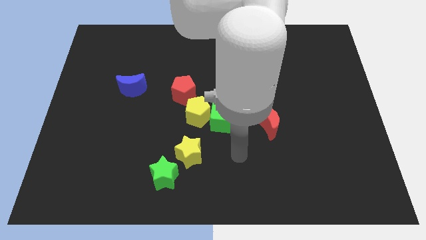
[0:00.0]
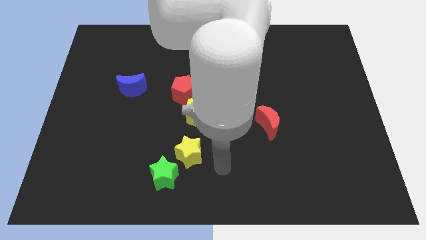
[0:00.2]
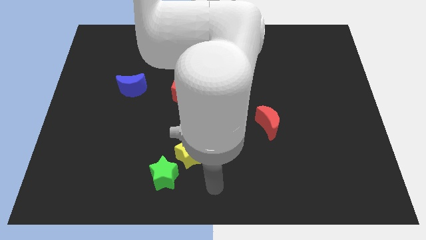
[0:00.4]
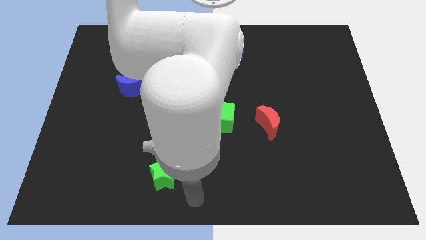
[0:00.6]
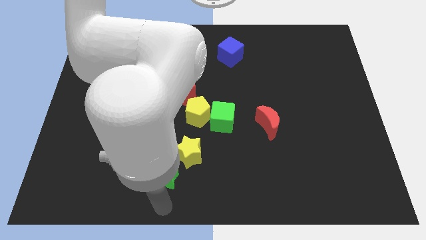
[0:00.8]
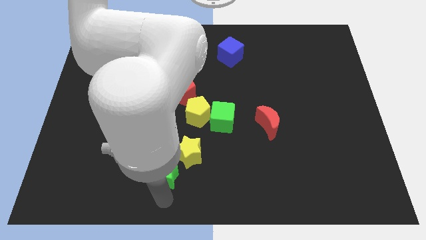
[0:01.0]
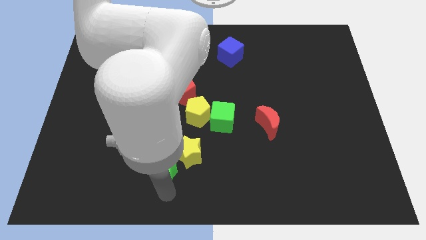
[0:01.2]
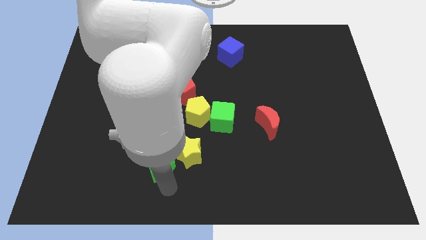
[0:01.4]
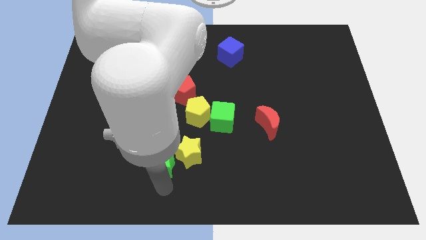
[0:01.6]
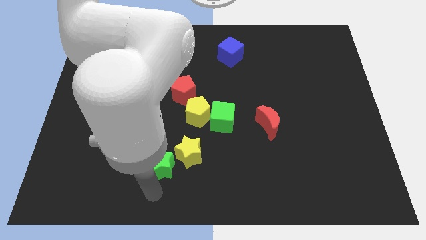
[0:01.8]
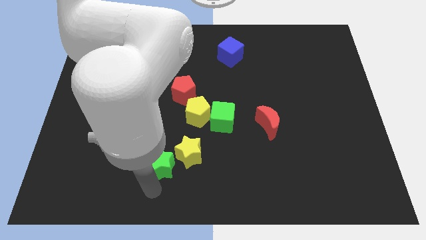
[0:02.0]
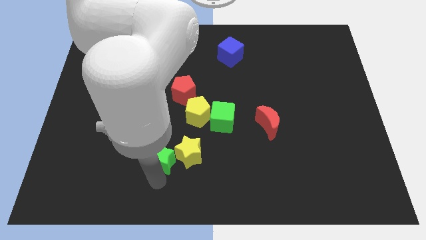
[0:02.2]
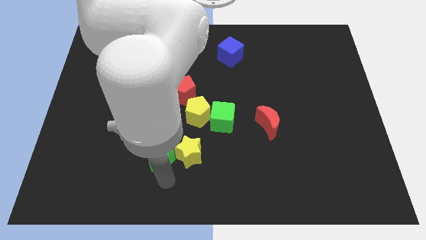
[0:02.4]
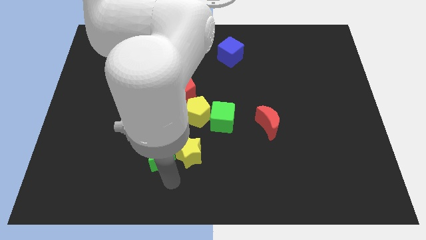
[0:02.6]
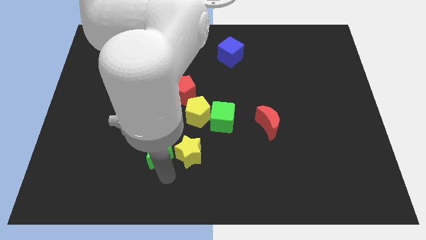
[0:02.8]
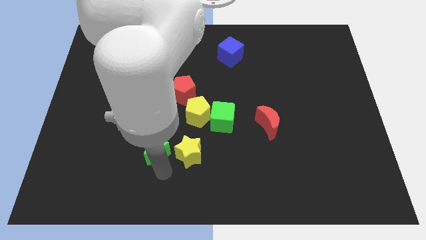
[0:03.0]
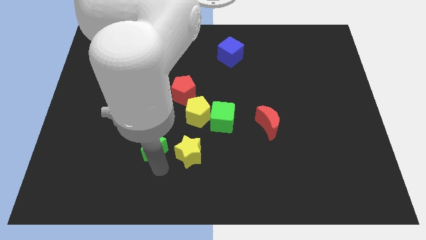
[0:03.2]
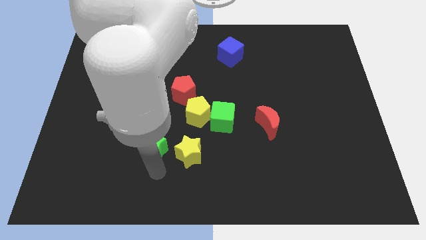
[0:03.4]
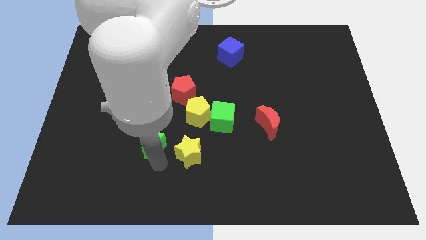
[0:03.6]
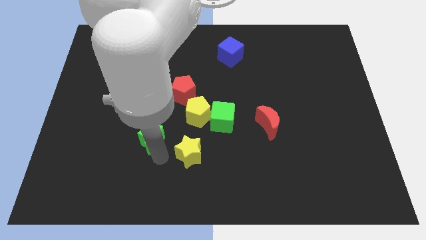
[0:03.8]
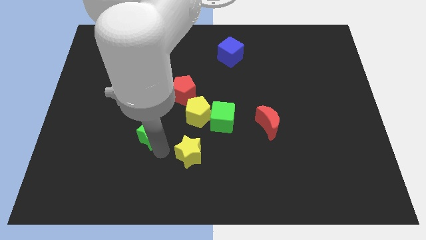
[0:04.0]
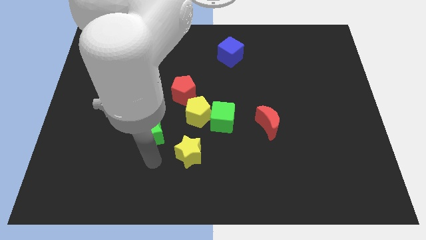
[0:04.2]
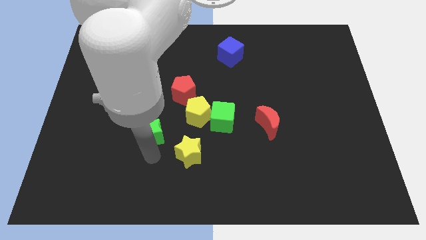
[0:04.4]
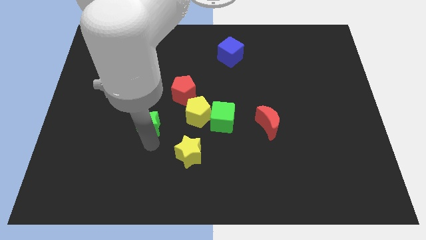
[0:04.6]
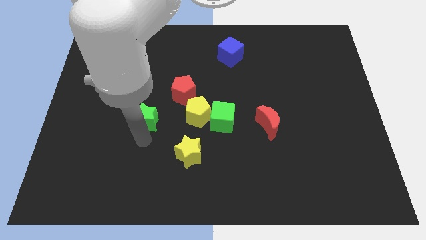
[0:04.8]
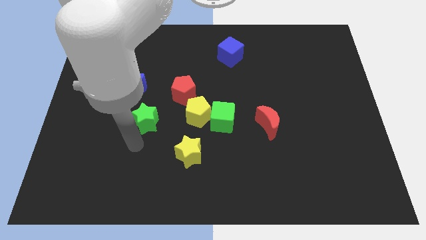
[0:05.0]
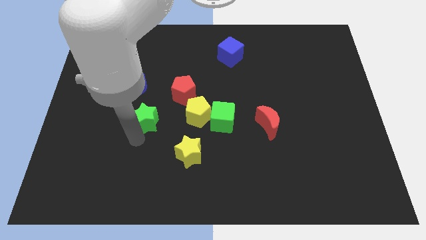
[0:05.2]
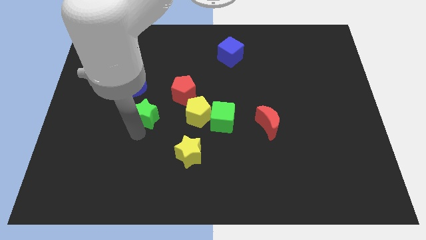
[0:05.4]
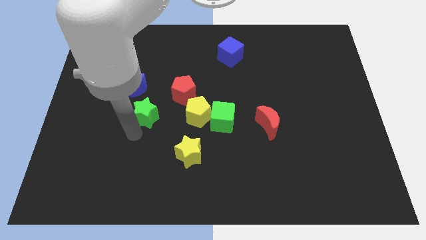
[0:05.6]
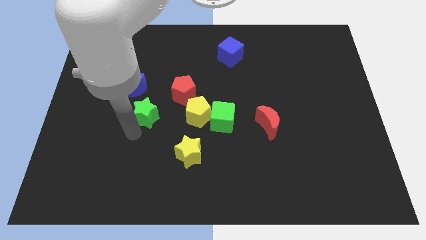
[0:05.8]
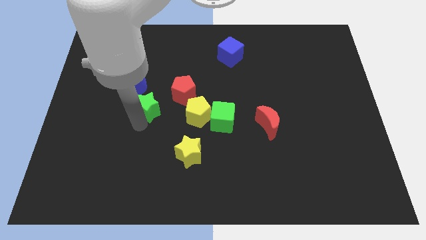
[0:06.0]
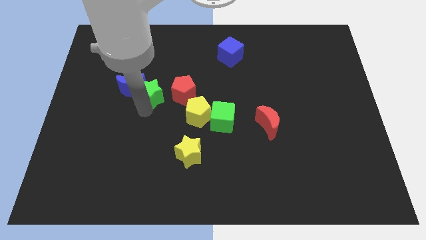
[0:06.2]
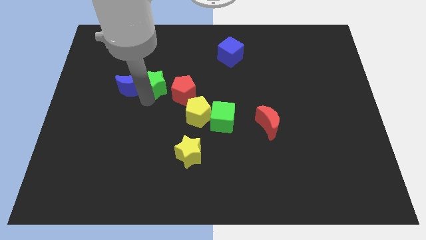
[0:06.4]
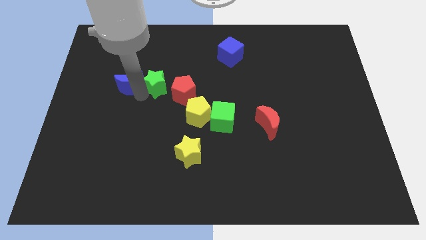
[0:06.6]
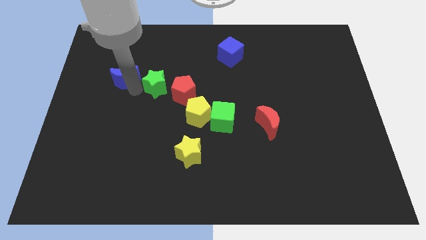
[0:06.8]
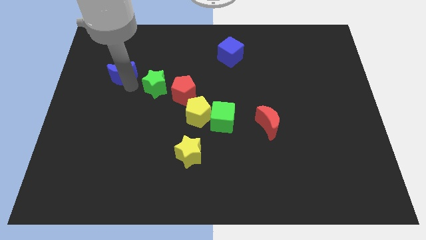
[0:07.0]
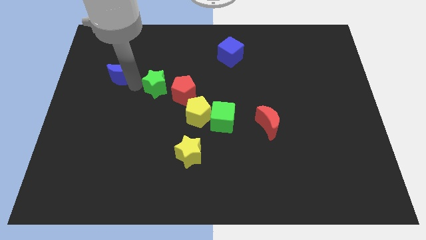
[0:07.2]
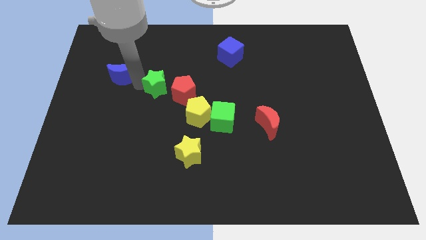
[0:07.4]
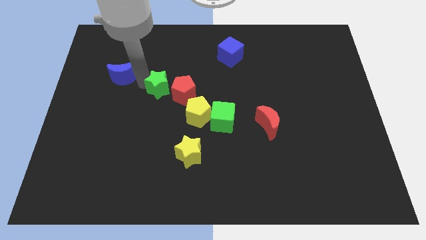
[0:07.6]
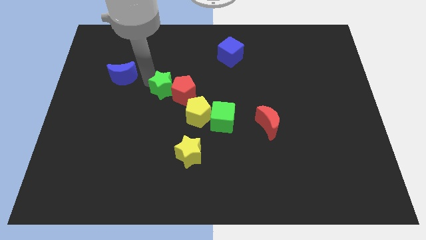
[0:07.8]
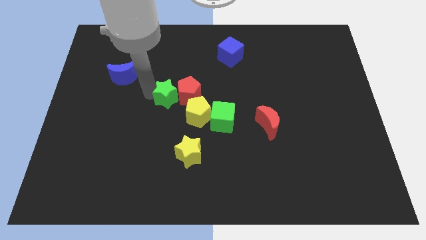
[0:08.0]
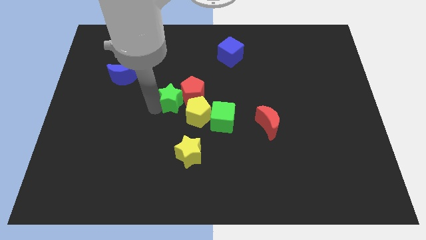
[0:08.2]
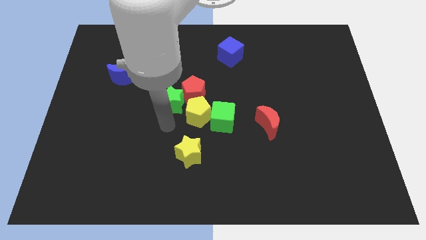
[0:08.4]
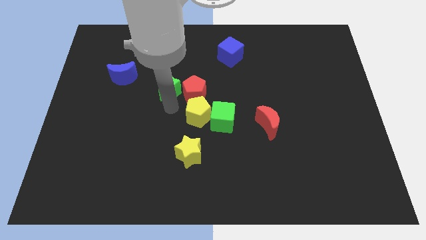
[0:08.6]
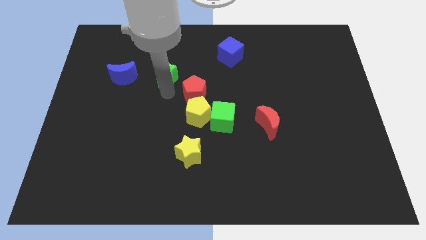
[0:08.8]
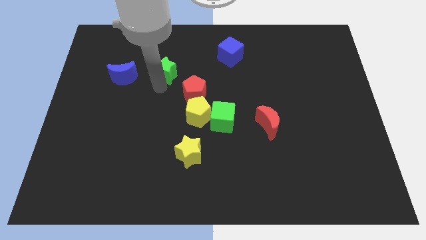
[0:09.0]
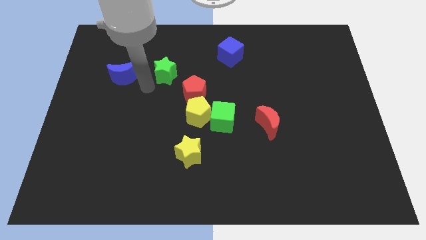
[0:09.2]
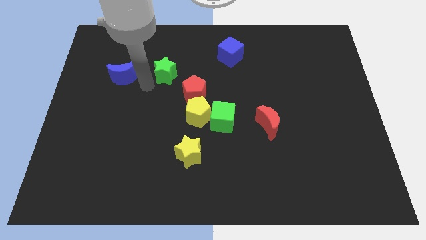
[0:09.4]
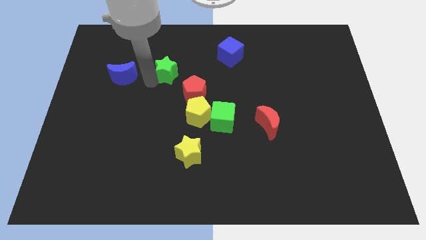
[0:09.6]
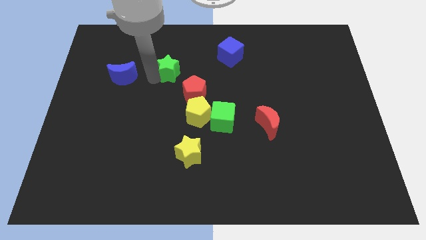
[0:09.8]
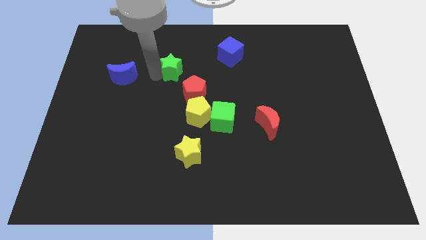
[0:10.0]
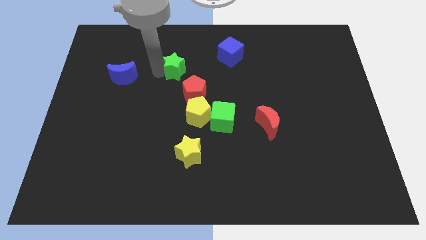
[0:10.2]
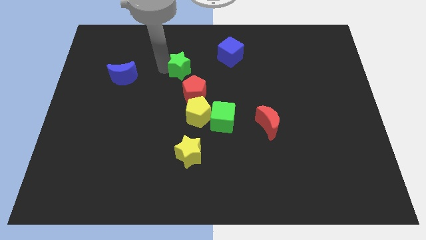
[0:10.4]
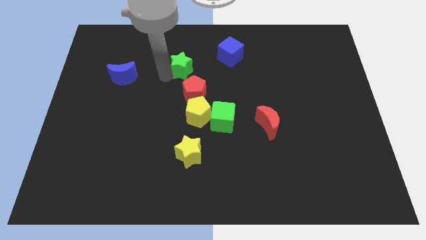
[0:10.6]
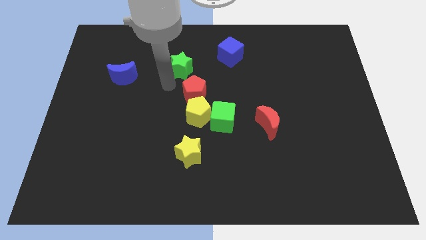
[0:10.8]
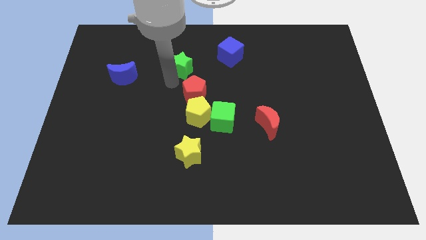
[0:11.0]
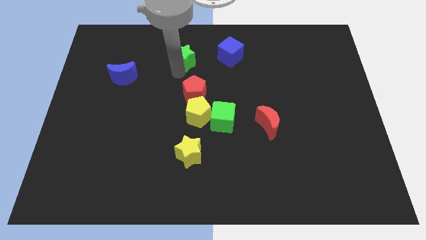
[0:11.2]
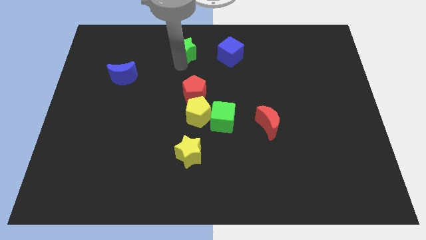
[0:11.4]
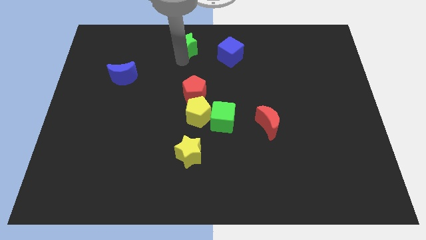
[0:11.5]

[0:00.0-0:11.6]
slide the green star to the top
